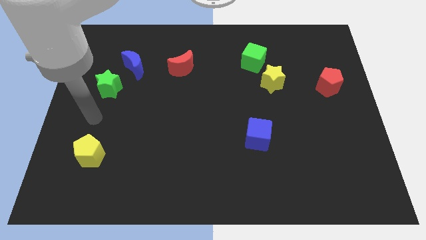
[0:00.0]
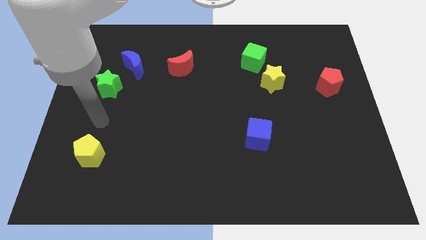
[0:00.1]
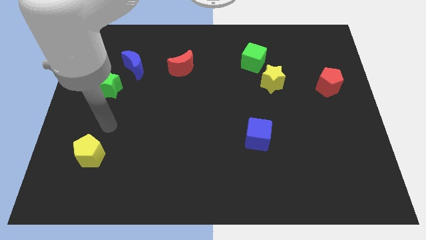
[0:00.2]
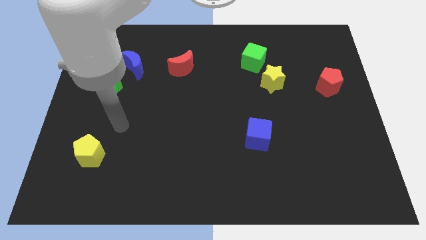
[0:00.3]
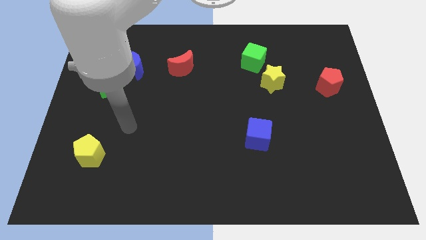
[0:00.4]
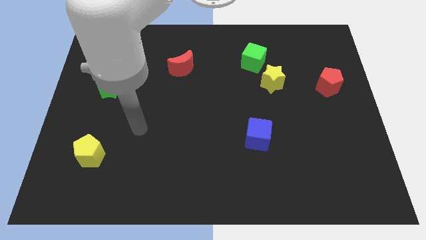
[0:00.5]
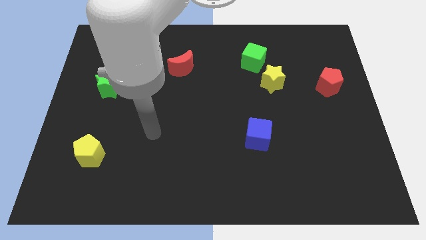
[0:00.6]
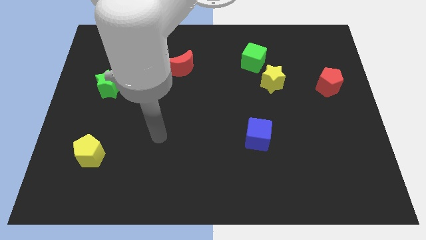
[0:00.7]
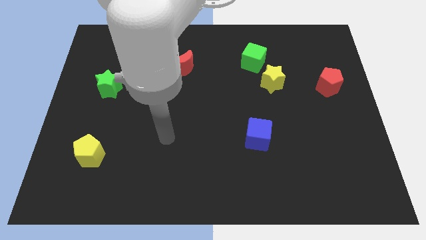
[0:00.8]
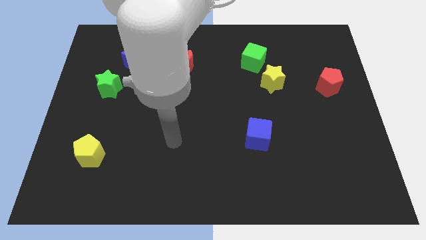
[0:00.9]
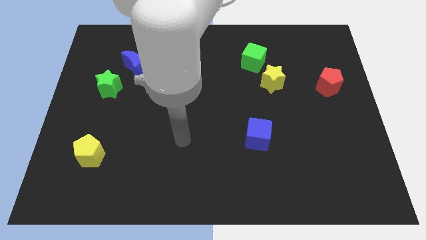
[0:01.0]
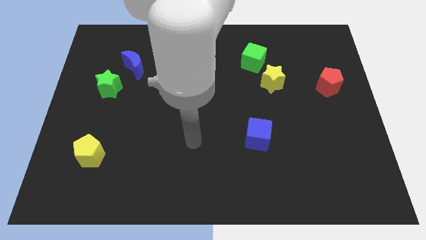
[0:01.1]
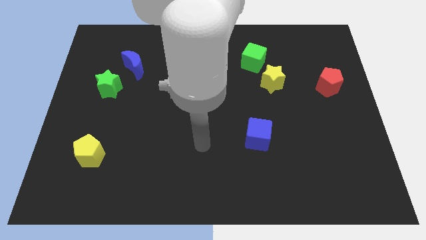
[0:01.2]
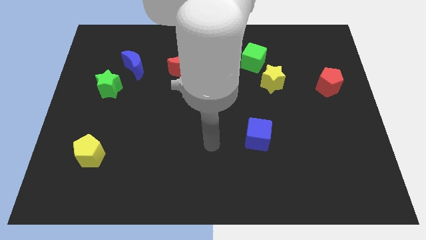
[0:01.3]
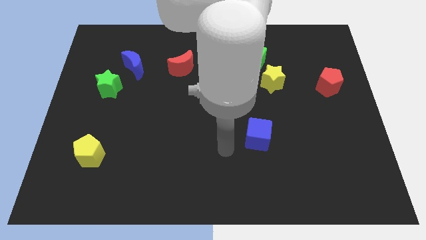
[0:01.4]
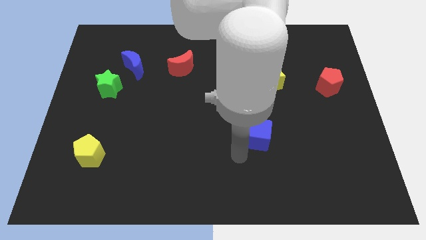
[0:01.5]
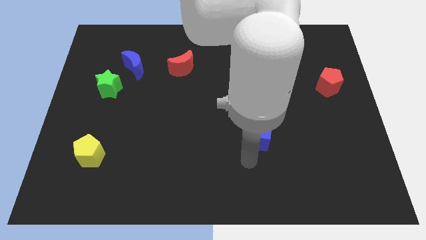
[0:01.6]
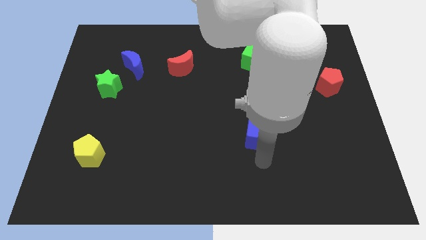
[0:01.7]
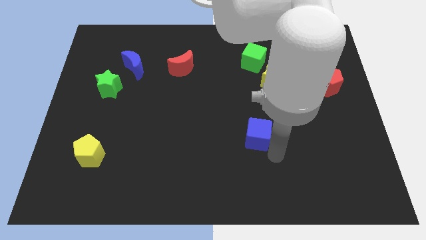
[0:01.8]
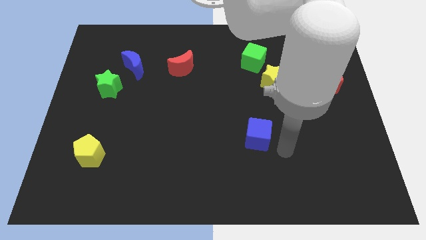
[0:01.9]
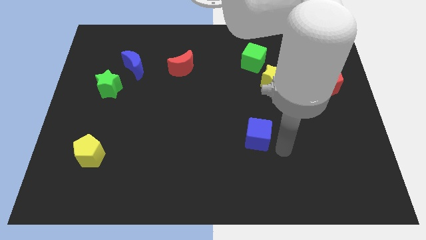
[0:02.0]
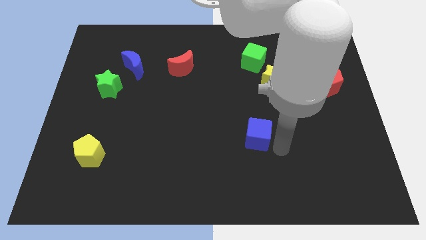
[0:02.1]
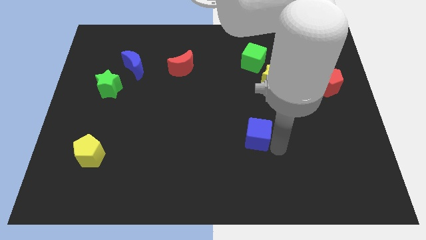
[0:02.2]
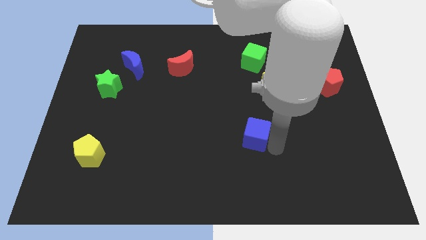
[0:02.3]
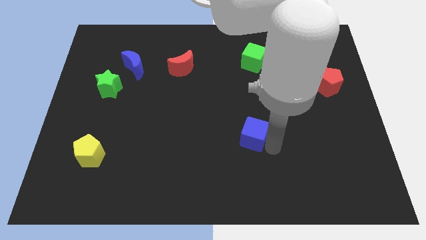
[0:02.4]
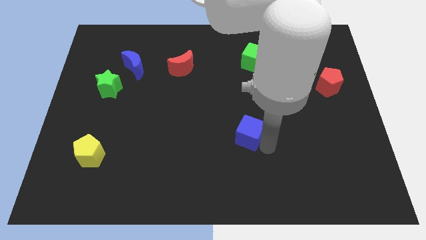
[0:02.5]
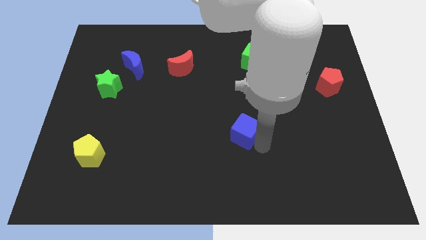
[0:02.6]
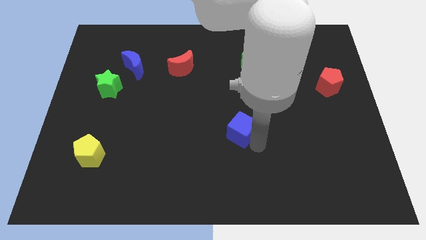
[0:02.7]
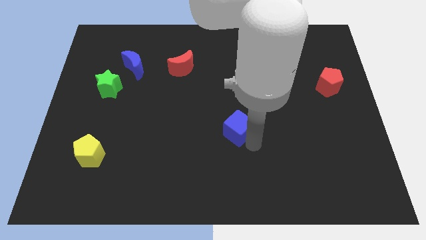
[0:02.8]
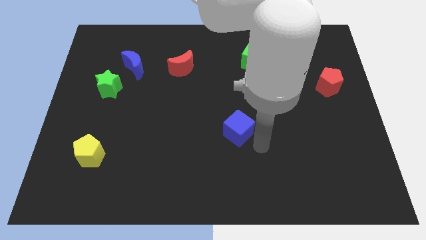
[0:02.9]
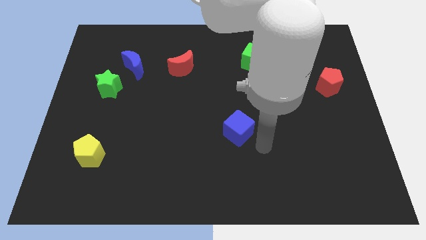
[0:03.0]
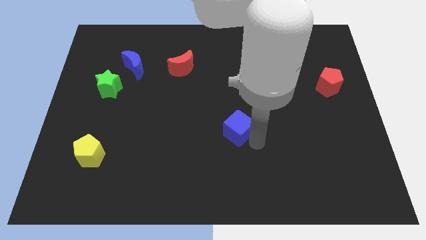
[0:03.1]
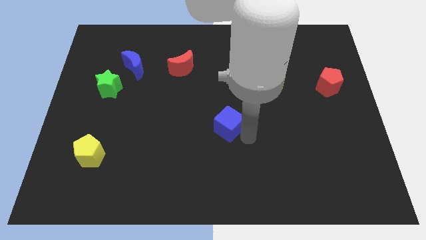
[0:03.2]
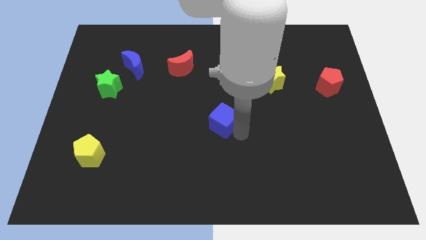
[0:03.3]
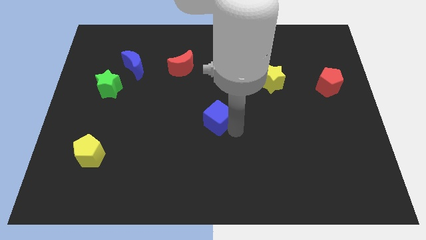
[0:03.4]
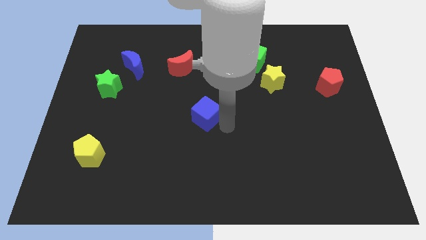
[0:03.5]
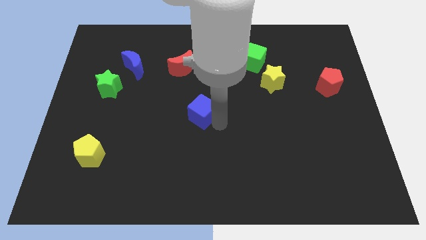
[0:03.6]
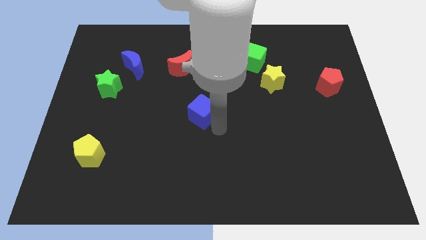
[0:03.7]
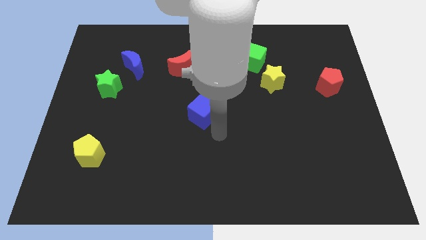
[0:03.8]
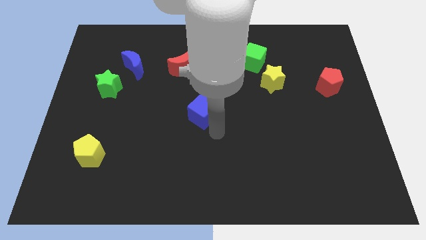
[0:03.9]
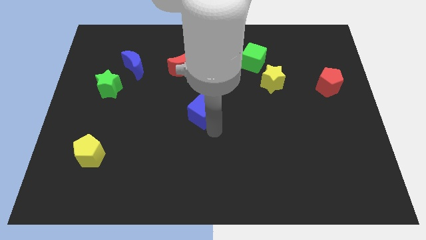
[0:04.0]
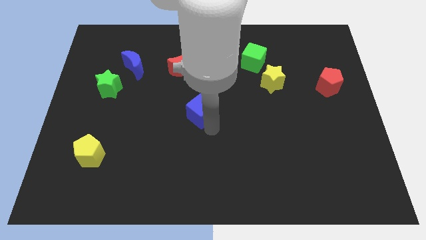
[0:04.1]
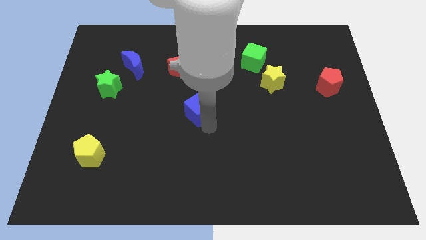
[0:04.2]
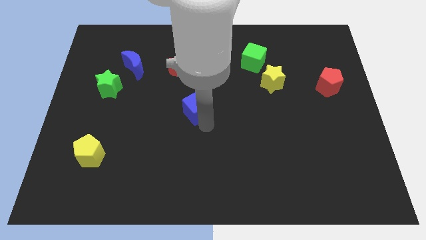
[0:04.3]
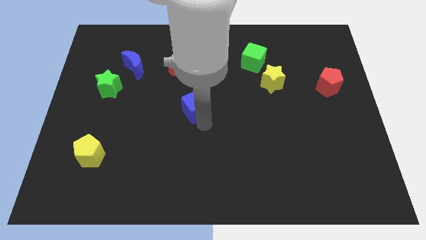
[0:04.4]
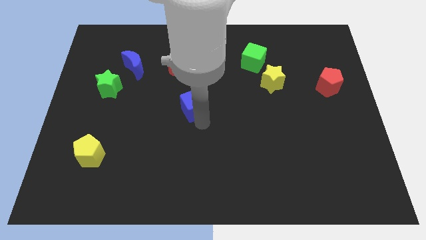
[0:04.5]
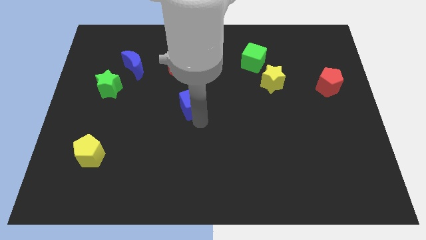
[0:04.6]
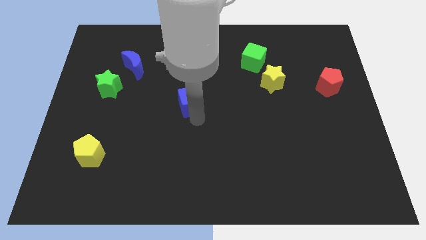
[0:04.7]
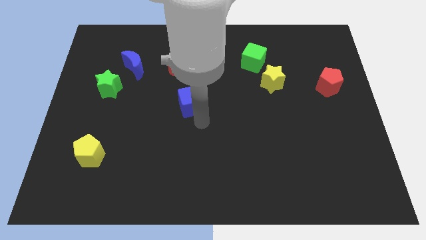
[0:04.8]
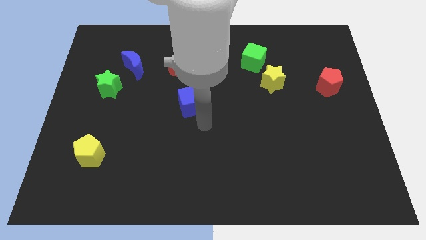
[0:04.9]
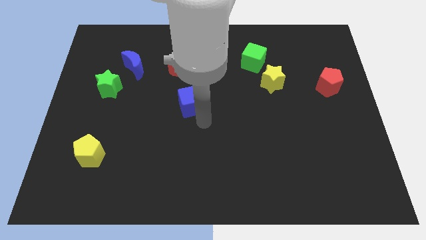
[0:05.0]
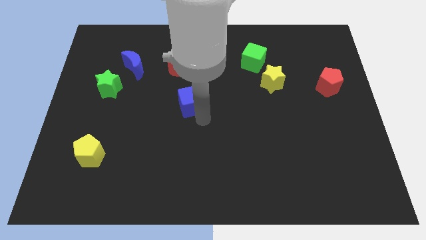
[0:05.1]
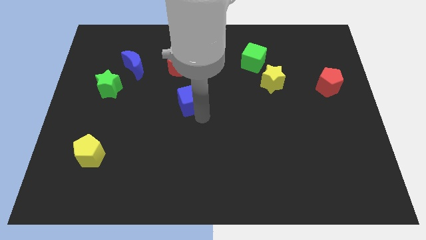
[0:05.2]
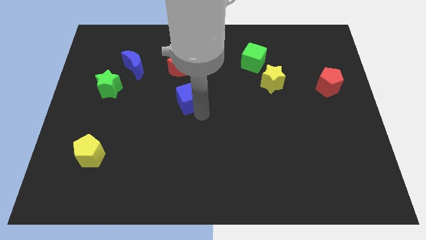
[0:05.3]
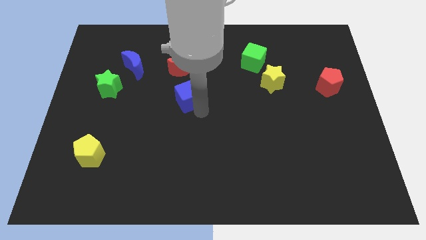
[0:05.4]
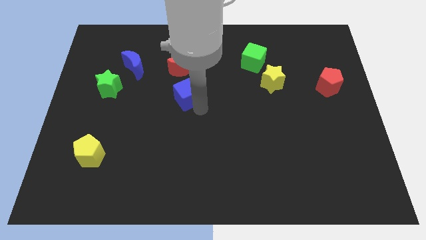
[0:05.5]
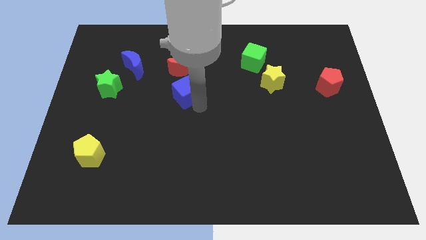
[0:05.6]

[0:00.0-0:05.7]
move the blue cube upwards and left

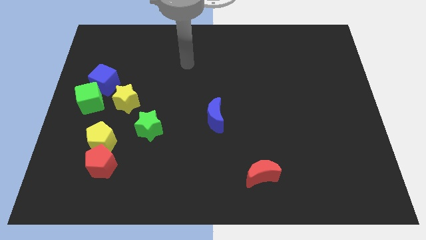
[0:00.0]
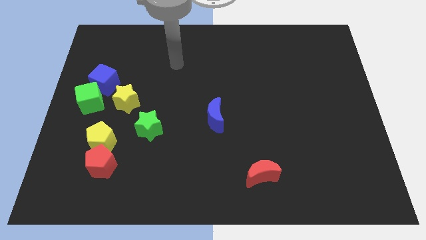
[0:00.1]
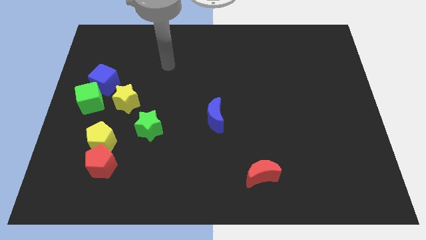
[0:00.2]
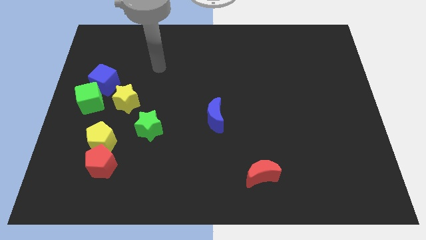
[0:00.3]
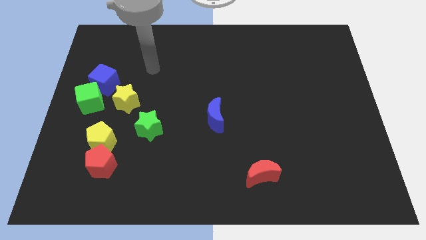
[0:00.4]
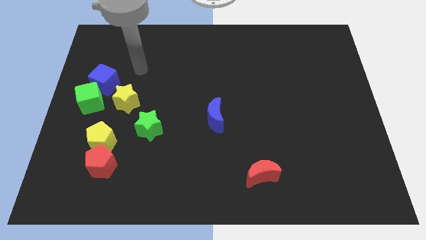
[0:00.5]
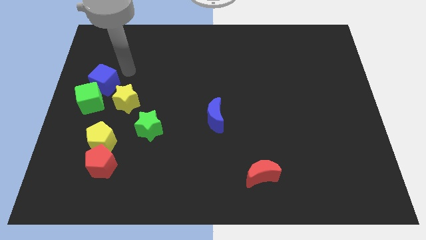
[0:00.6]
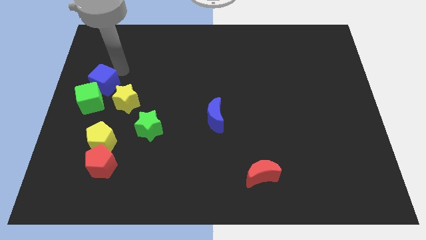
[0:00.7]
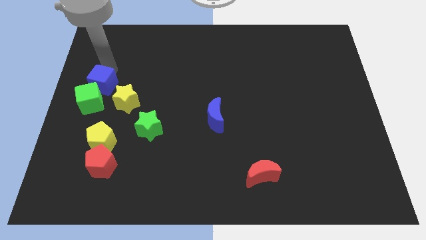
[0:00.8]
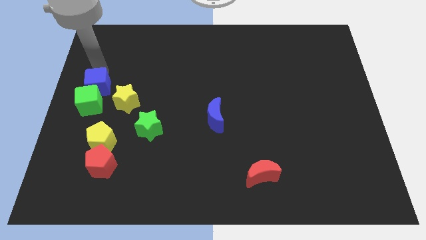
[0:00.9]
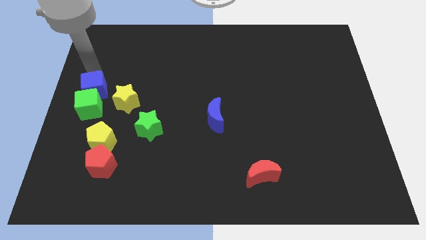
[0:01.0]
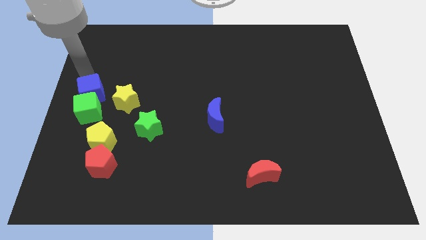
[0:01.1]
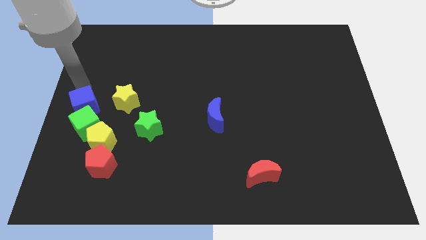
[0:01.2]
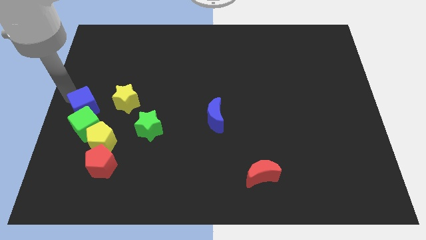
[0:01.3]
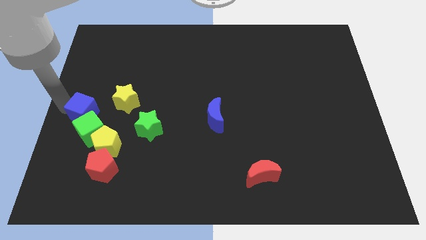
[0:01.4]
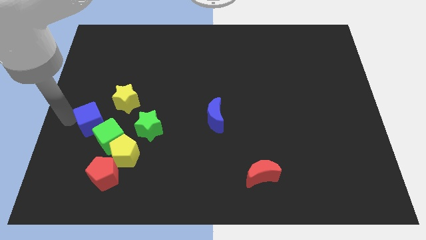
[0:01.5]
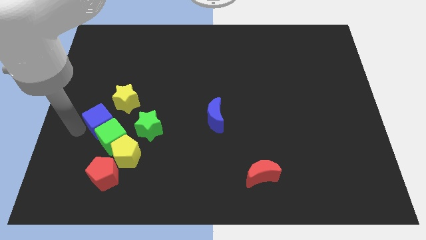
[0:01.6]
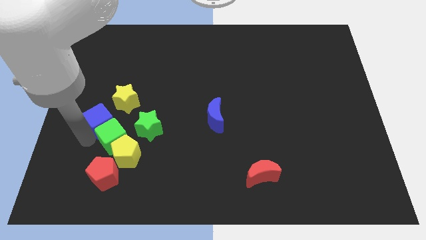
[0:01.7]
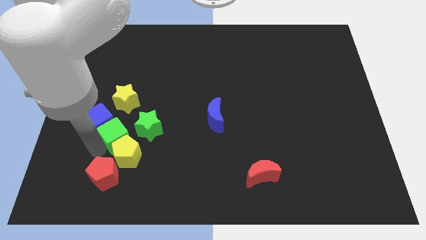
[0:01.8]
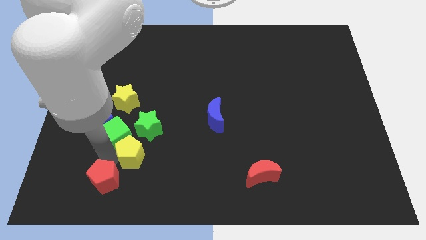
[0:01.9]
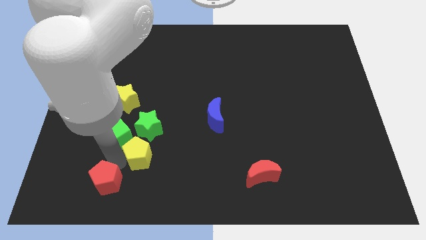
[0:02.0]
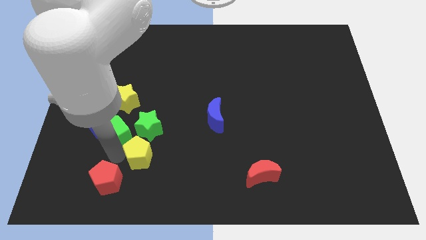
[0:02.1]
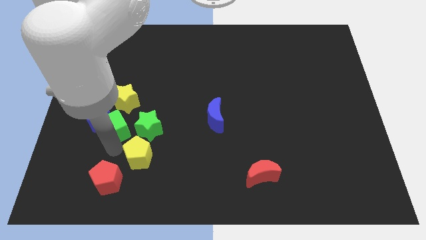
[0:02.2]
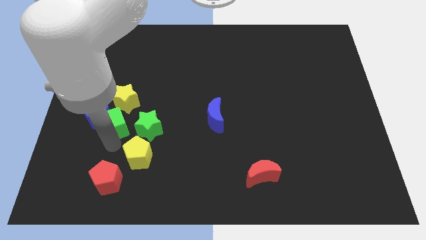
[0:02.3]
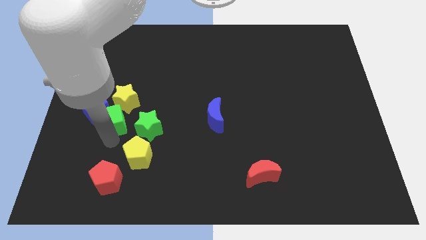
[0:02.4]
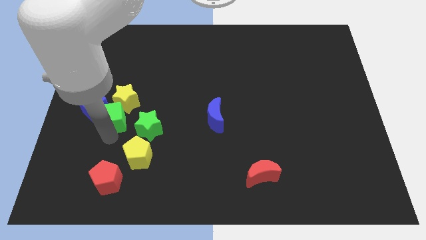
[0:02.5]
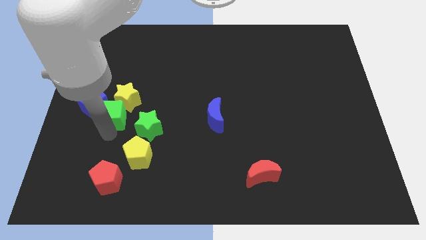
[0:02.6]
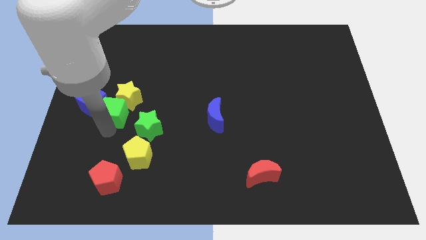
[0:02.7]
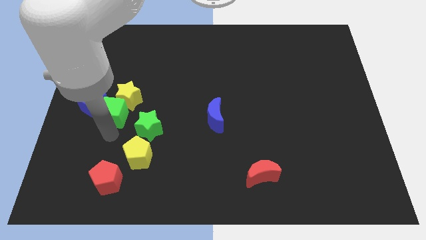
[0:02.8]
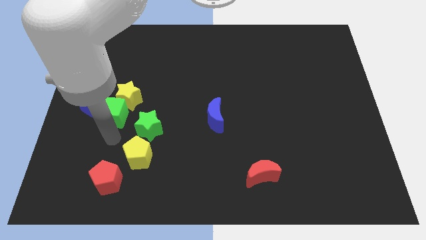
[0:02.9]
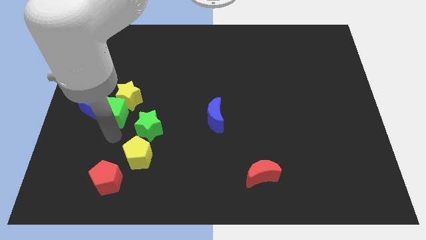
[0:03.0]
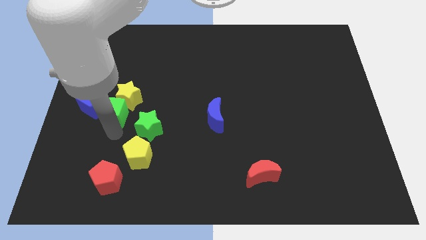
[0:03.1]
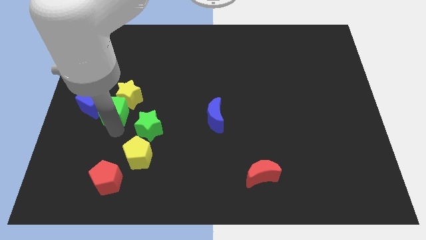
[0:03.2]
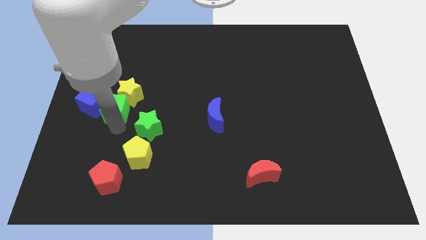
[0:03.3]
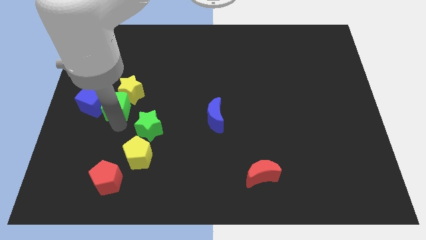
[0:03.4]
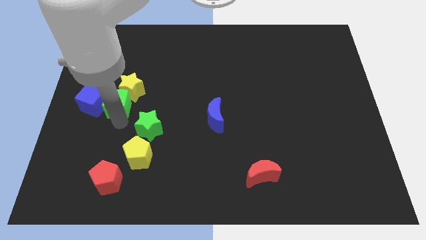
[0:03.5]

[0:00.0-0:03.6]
slightly move the green cube to the right
